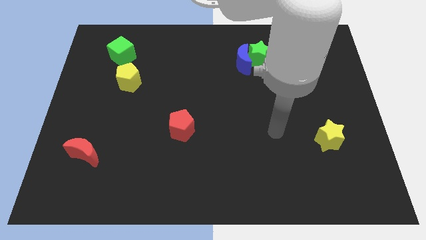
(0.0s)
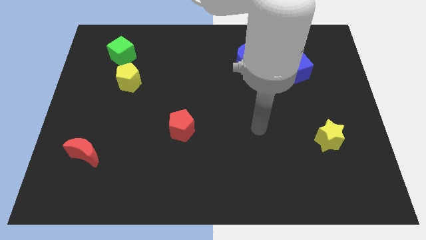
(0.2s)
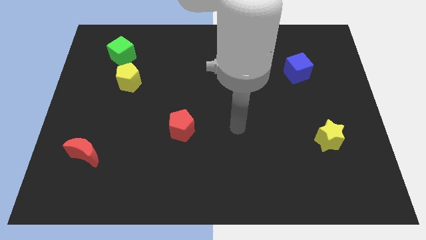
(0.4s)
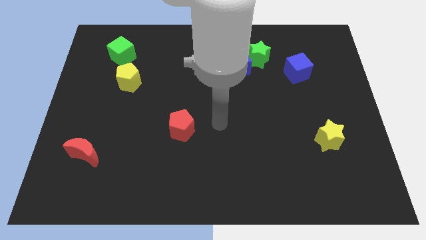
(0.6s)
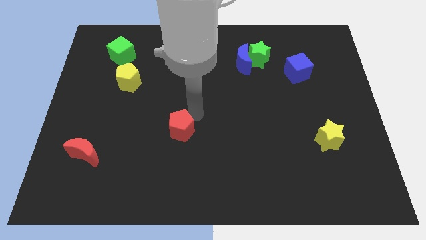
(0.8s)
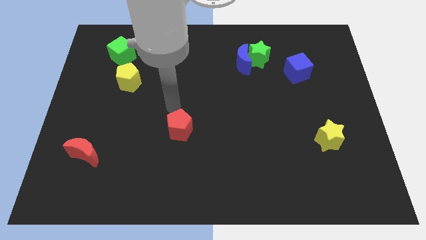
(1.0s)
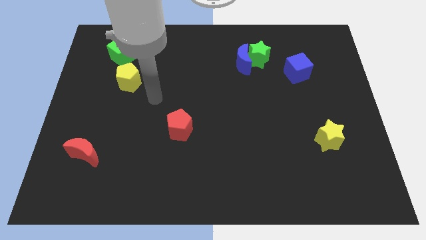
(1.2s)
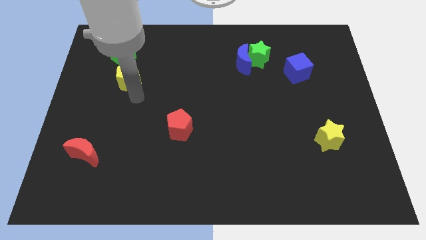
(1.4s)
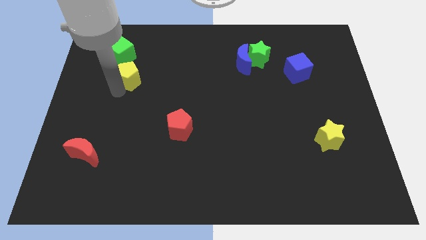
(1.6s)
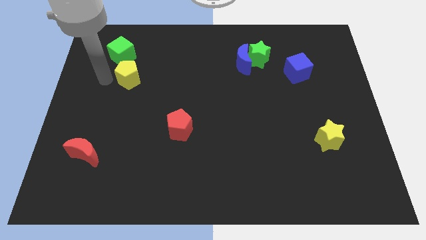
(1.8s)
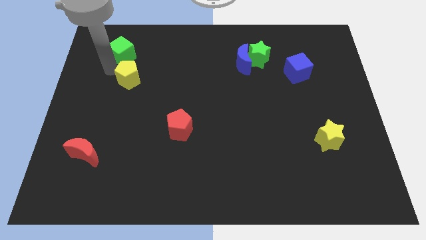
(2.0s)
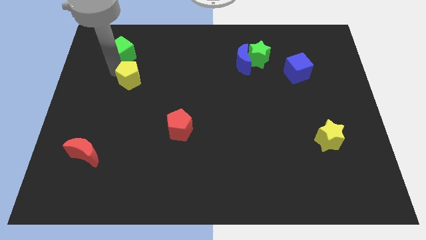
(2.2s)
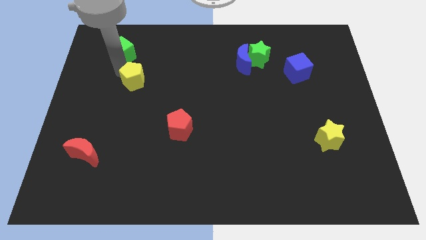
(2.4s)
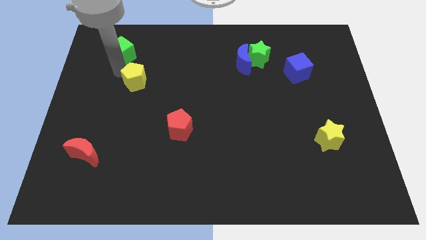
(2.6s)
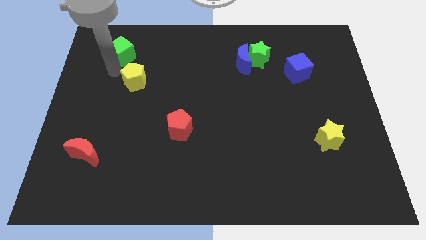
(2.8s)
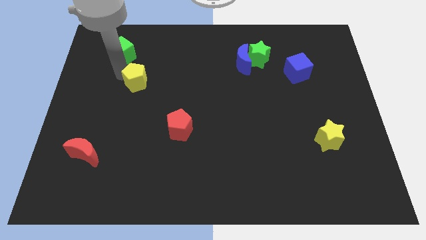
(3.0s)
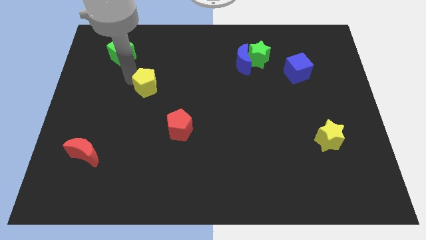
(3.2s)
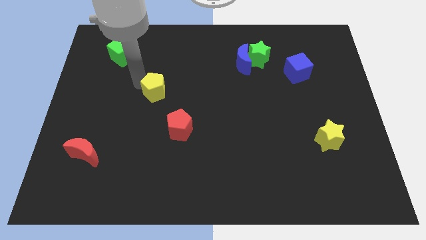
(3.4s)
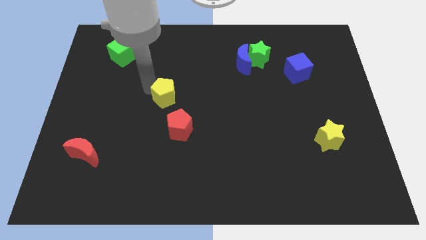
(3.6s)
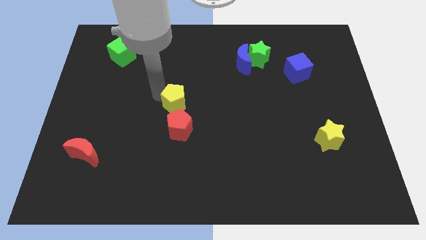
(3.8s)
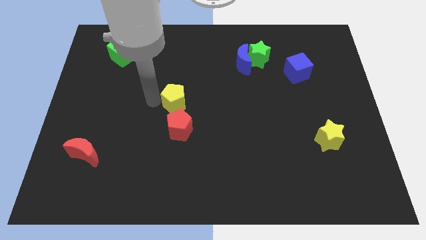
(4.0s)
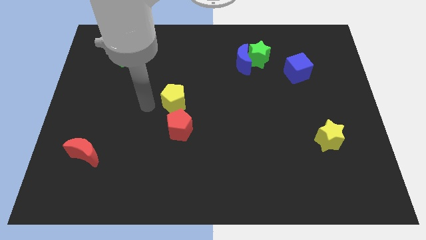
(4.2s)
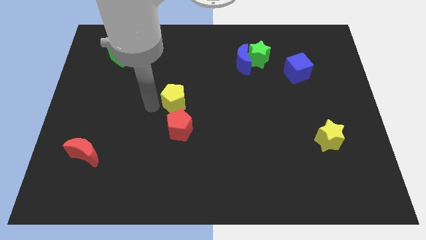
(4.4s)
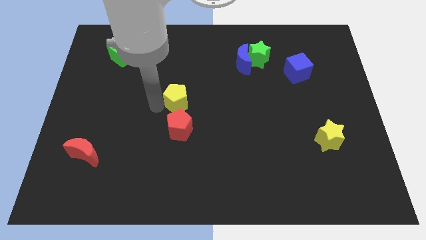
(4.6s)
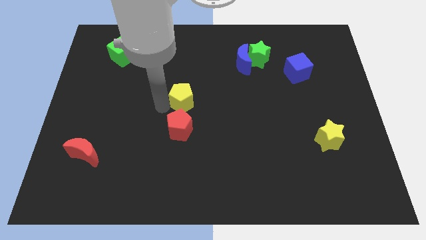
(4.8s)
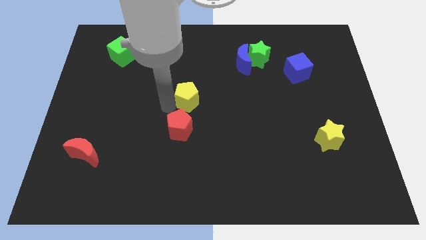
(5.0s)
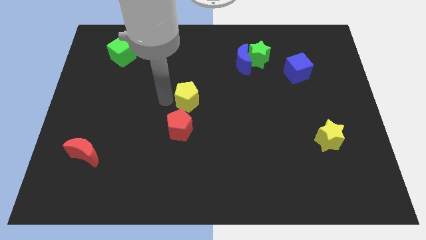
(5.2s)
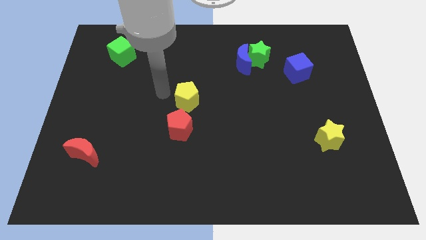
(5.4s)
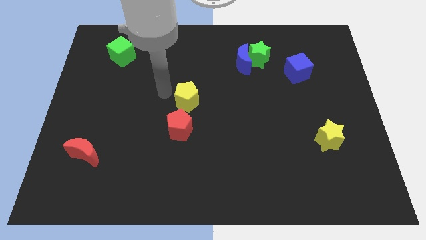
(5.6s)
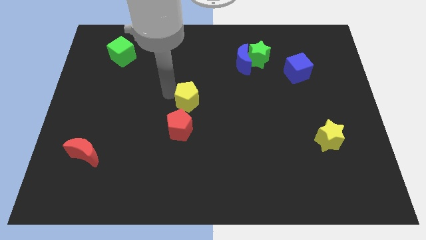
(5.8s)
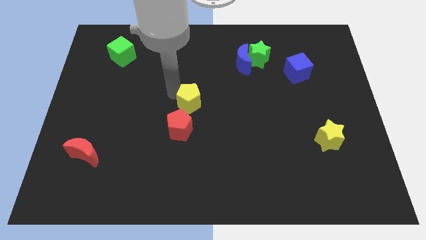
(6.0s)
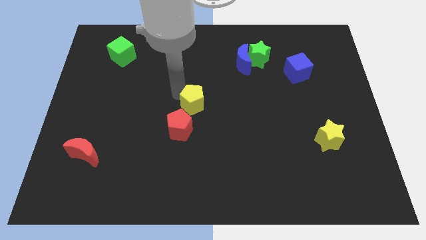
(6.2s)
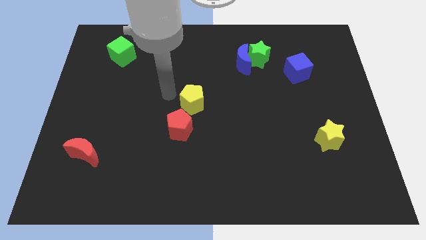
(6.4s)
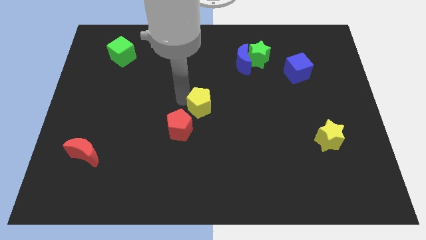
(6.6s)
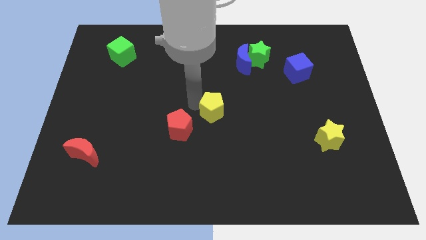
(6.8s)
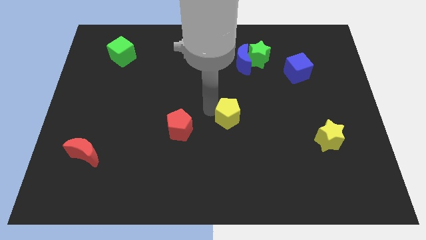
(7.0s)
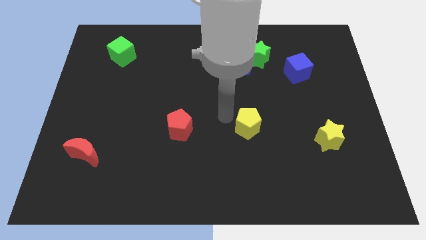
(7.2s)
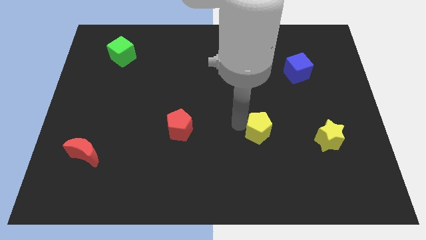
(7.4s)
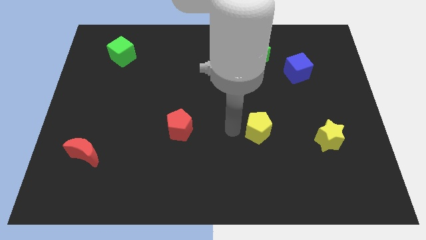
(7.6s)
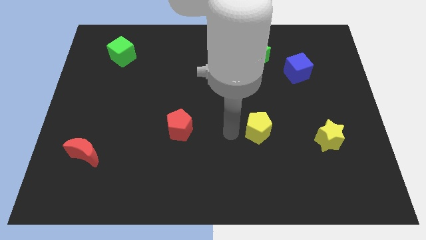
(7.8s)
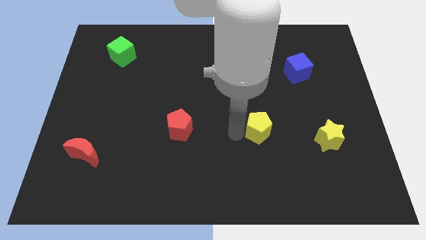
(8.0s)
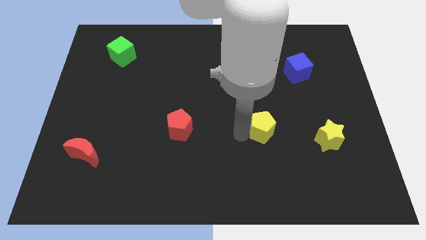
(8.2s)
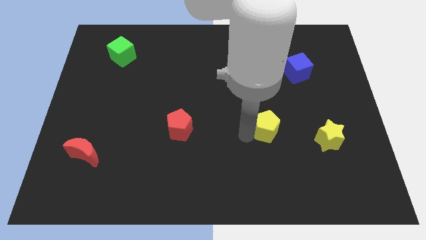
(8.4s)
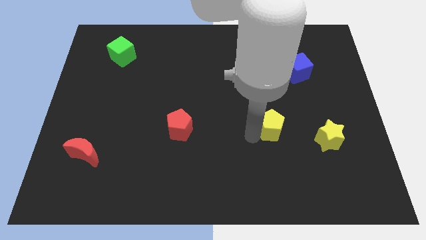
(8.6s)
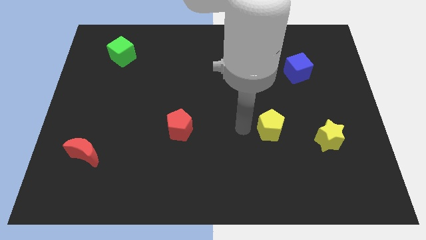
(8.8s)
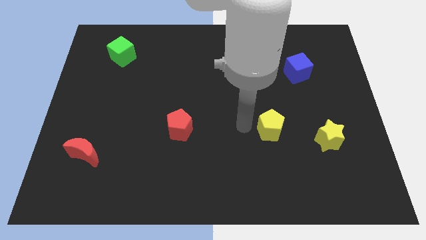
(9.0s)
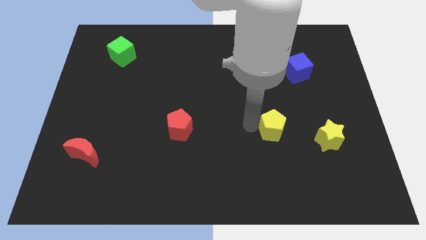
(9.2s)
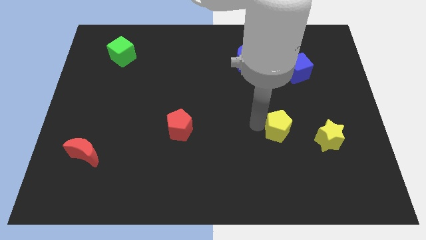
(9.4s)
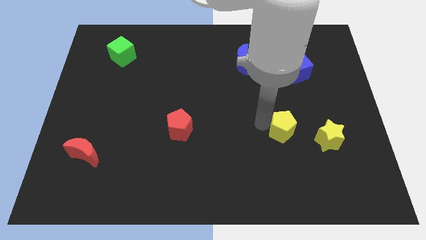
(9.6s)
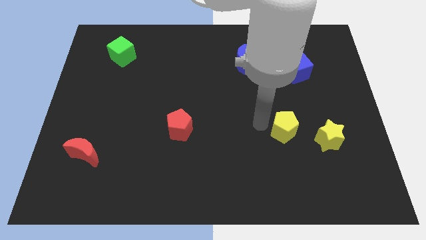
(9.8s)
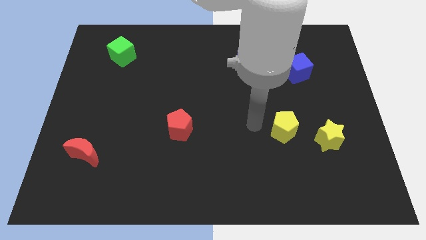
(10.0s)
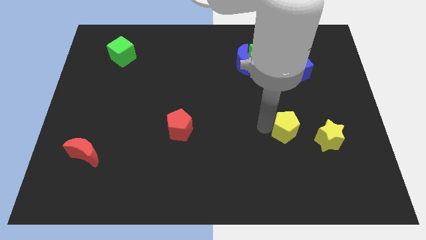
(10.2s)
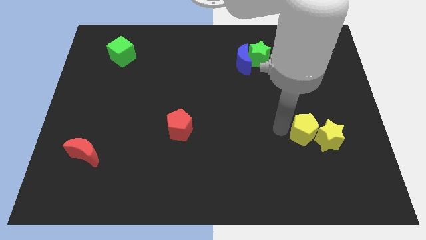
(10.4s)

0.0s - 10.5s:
put the yellow pentagon close to the yellow star

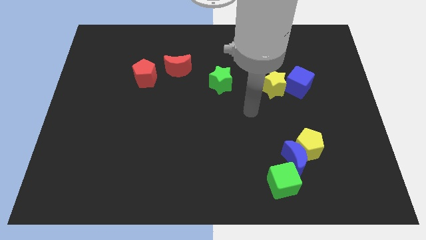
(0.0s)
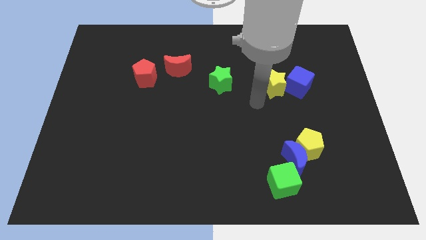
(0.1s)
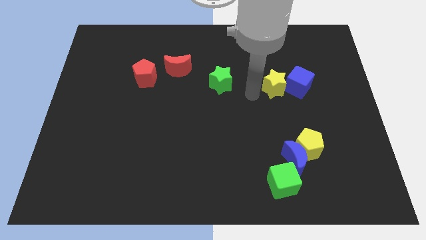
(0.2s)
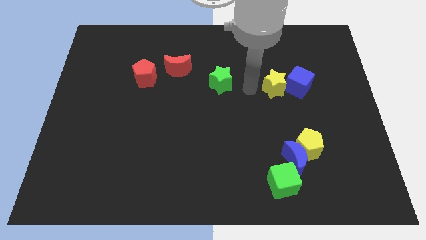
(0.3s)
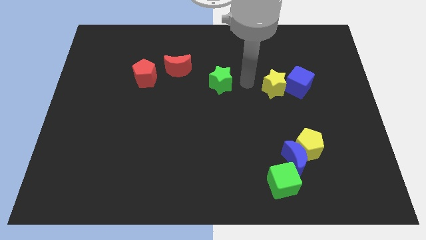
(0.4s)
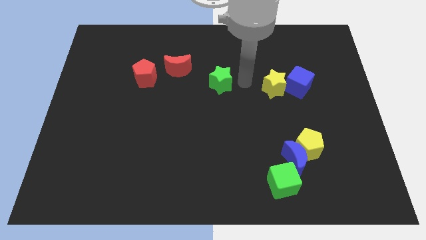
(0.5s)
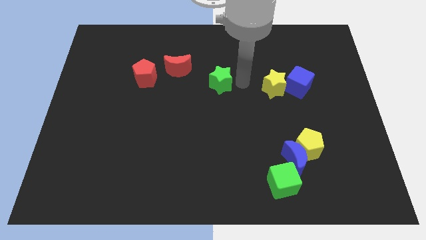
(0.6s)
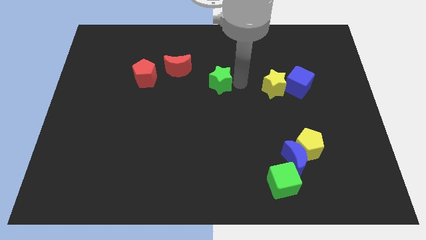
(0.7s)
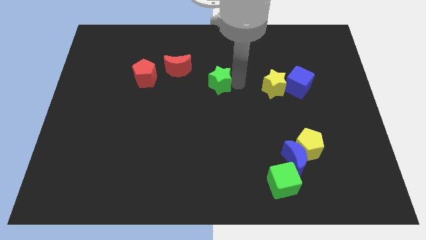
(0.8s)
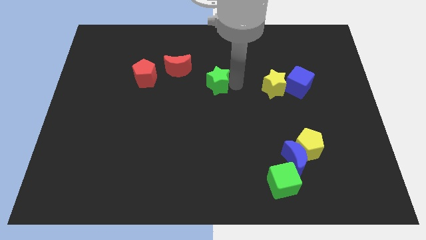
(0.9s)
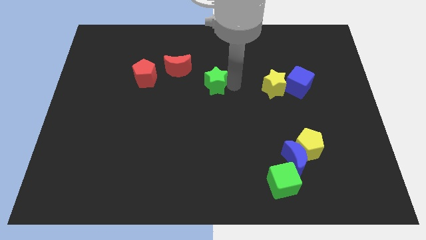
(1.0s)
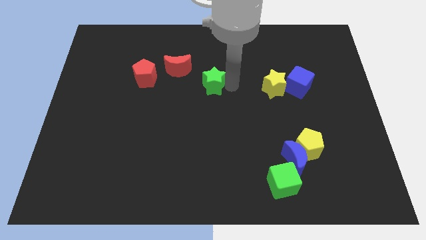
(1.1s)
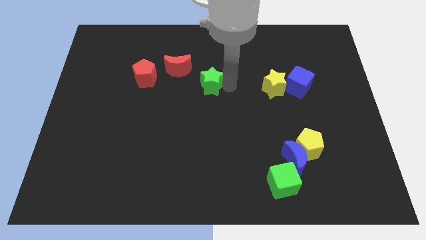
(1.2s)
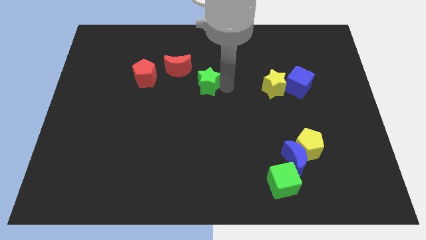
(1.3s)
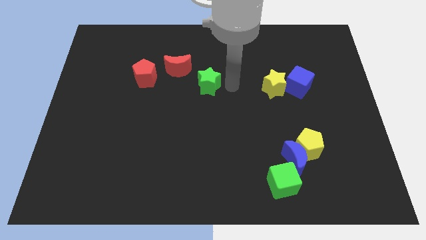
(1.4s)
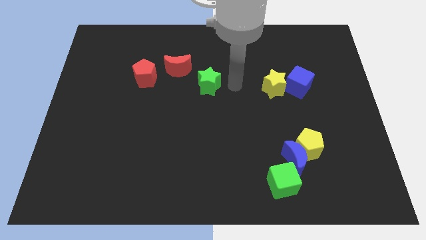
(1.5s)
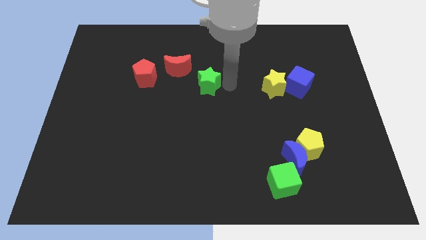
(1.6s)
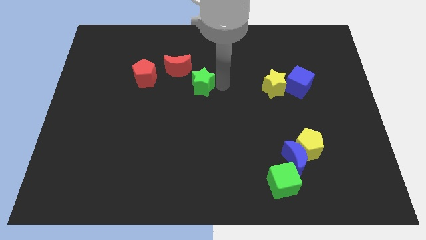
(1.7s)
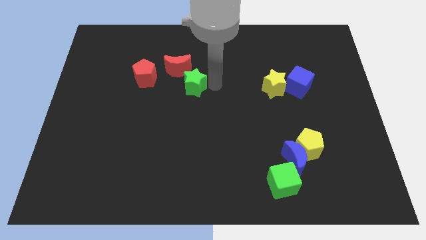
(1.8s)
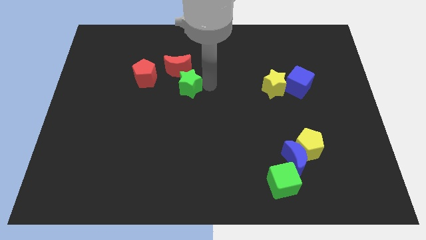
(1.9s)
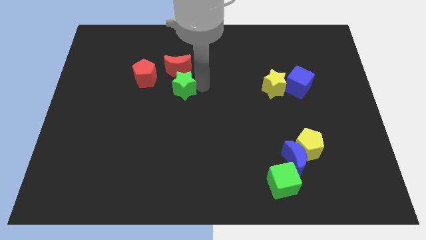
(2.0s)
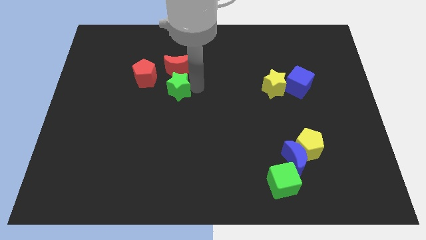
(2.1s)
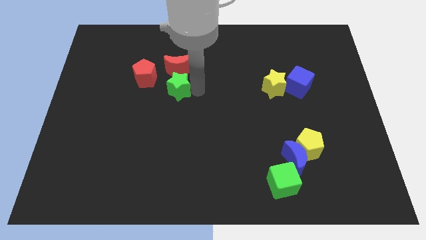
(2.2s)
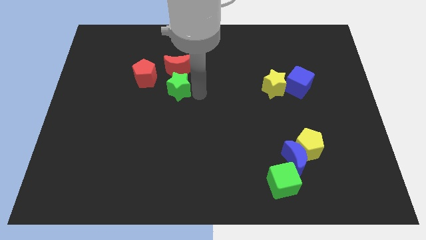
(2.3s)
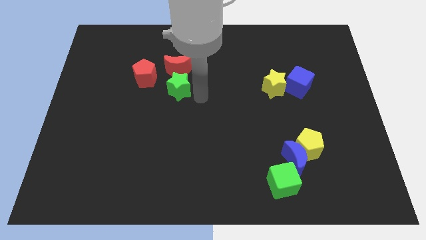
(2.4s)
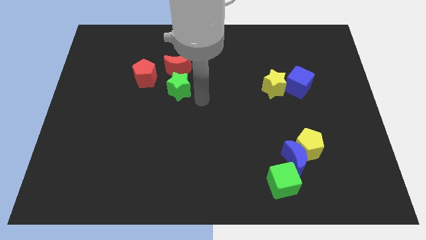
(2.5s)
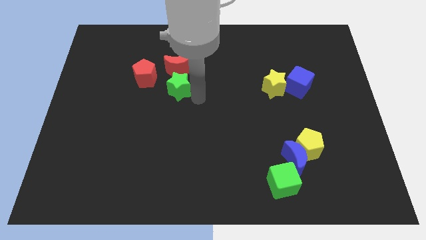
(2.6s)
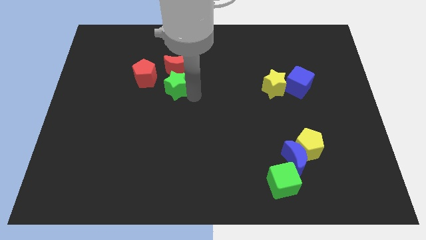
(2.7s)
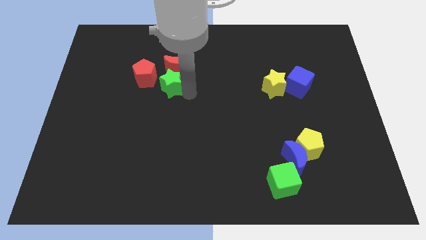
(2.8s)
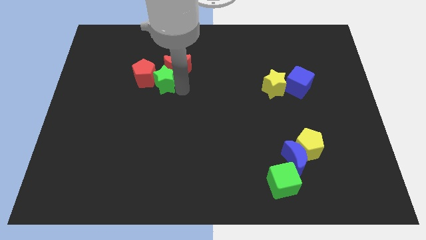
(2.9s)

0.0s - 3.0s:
move the green star to the red pentagon
